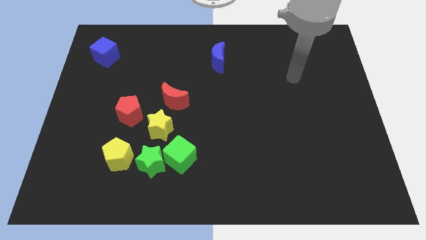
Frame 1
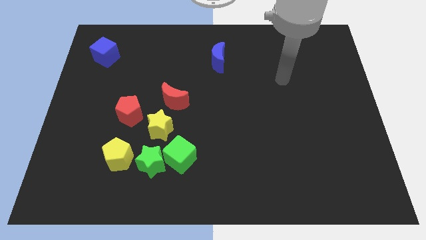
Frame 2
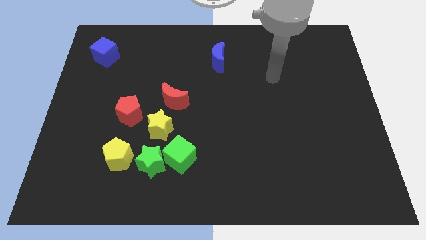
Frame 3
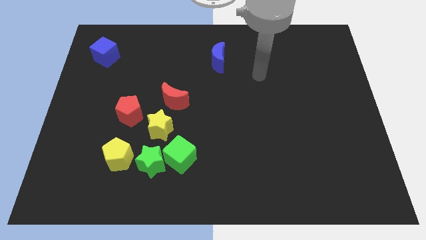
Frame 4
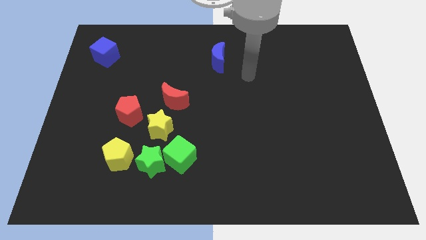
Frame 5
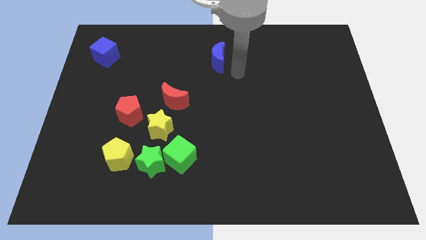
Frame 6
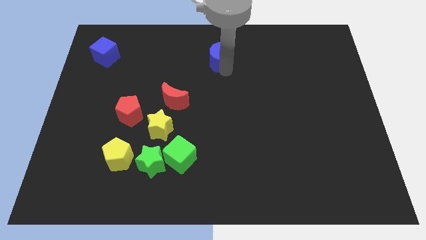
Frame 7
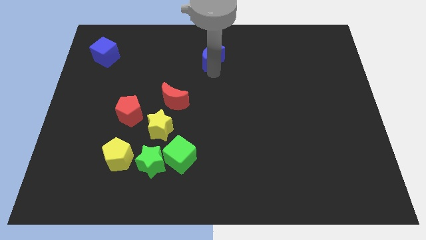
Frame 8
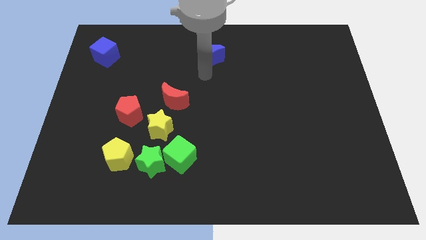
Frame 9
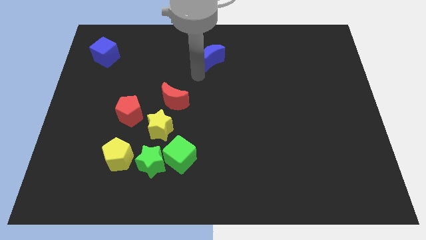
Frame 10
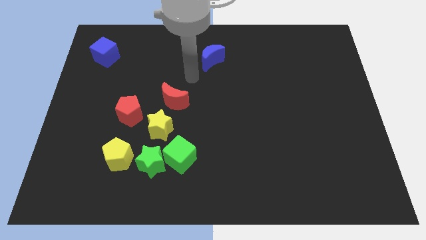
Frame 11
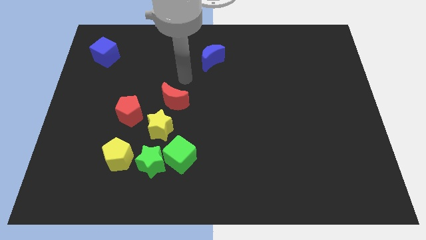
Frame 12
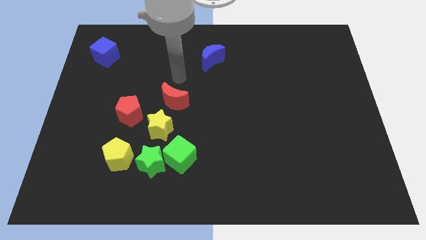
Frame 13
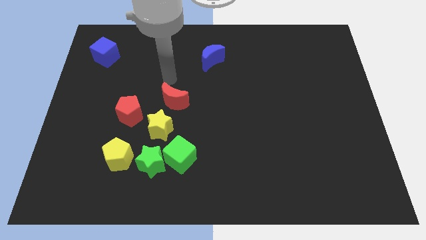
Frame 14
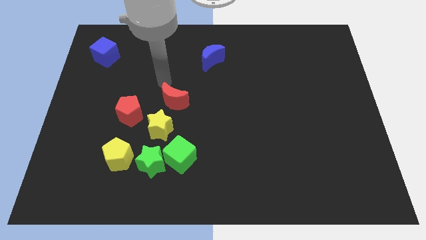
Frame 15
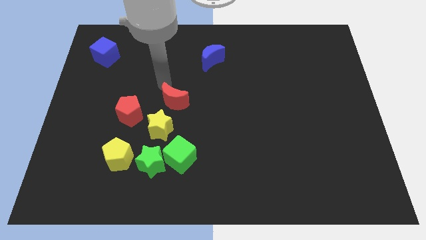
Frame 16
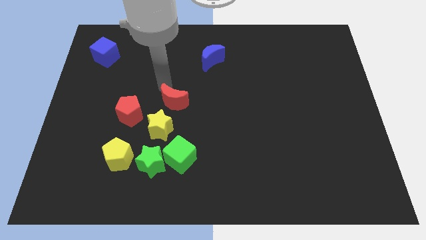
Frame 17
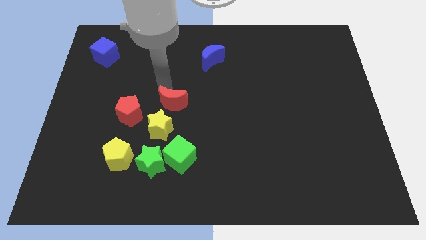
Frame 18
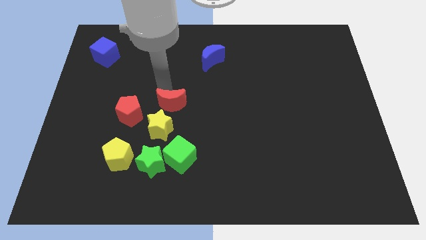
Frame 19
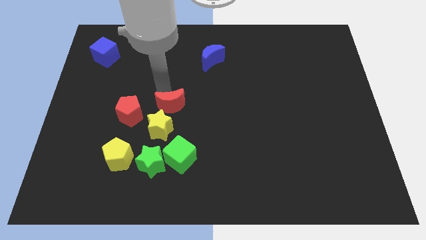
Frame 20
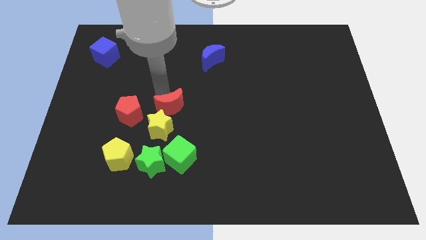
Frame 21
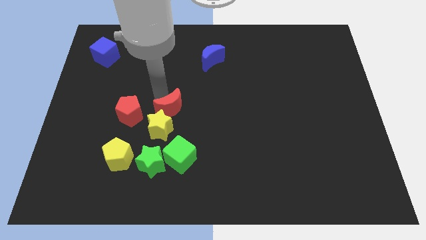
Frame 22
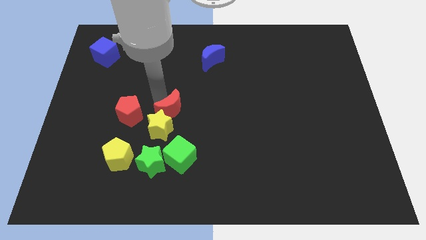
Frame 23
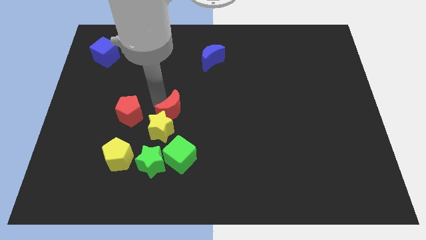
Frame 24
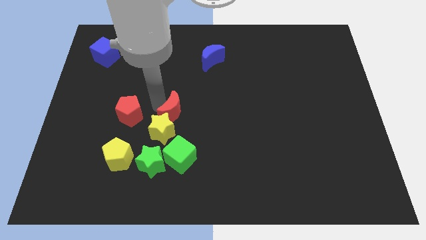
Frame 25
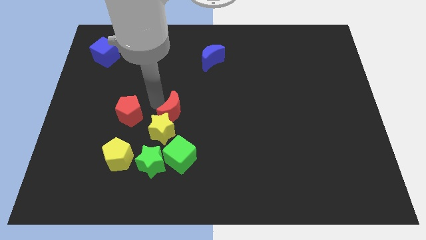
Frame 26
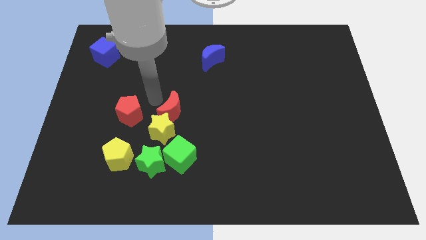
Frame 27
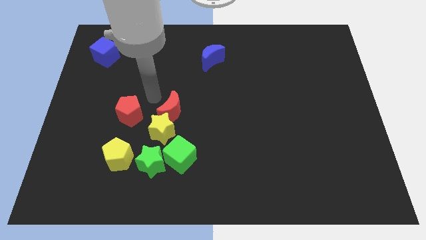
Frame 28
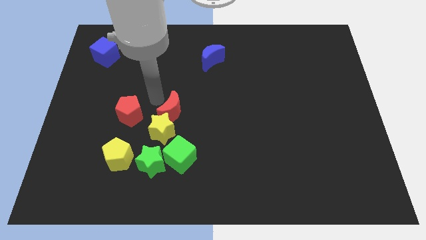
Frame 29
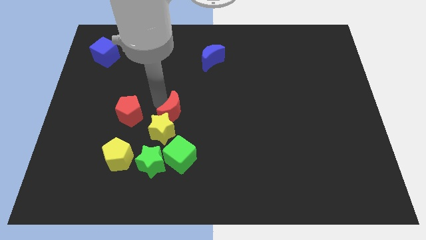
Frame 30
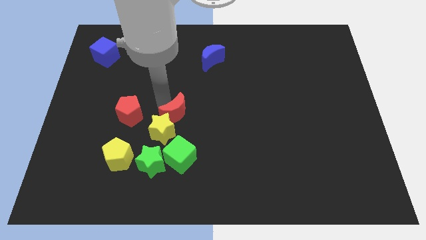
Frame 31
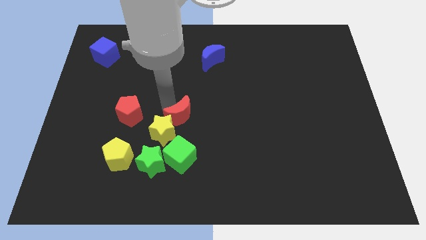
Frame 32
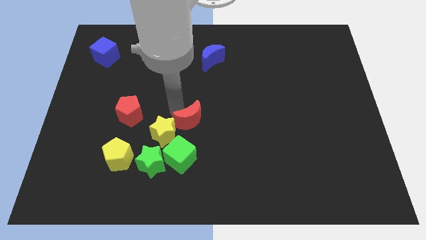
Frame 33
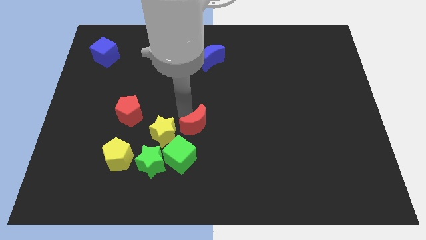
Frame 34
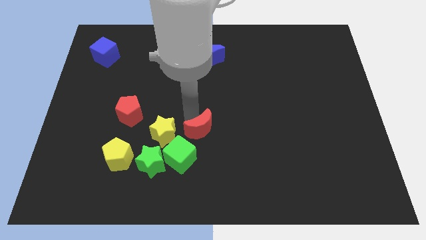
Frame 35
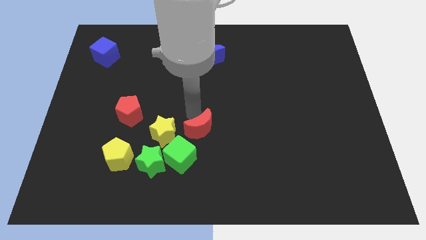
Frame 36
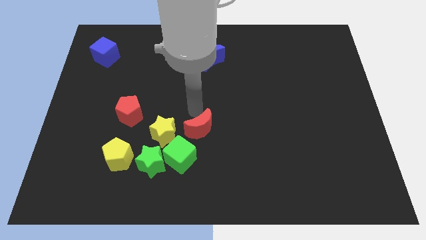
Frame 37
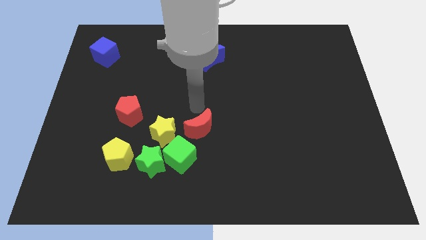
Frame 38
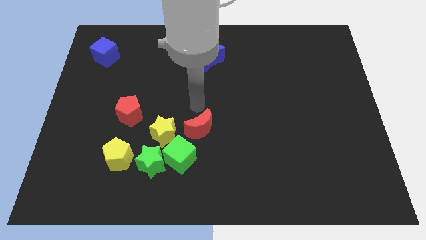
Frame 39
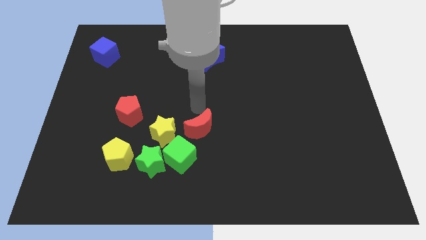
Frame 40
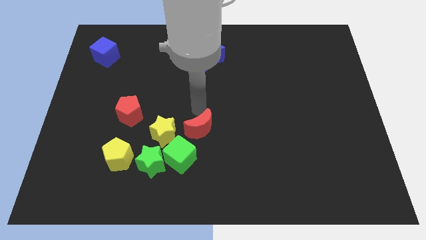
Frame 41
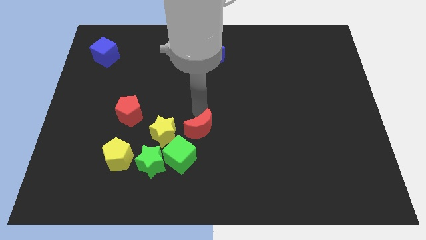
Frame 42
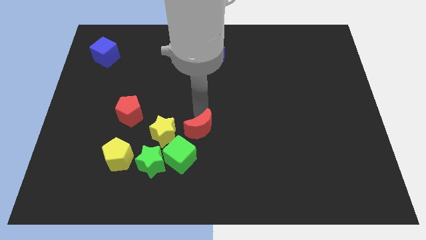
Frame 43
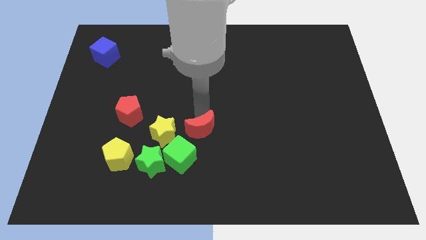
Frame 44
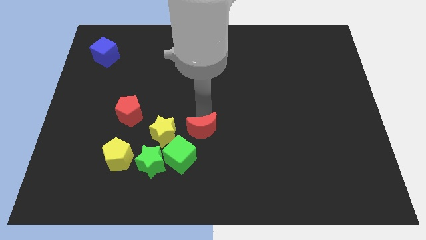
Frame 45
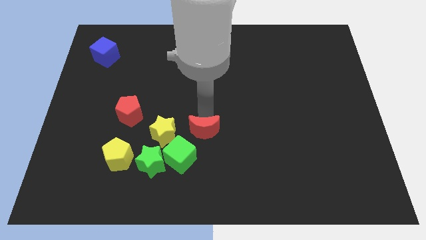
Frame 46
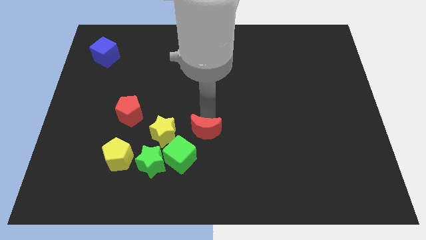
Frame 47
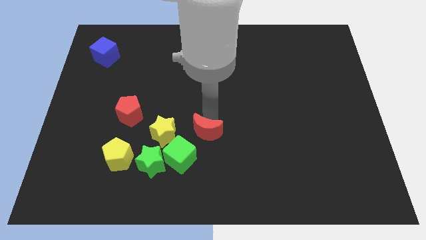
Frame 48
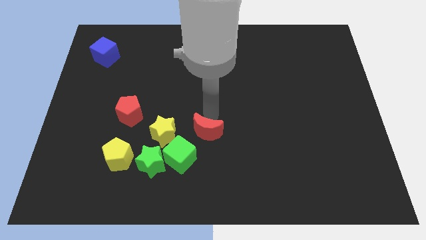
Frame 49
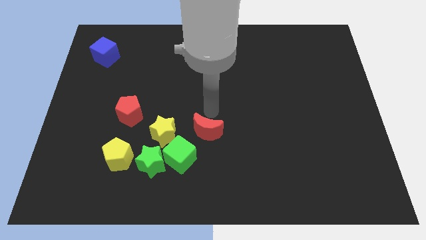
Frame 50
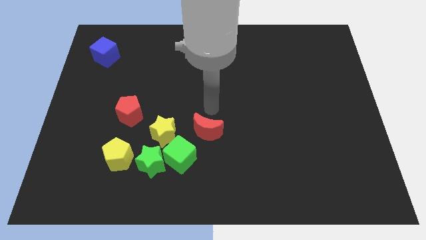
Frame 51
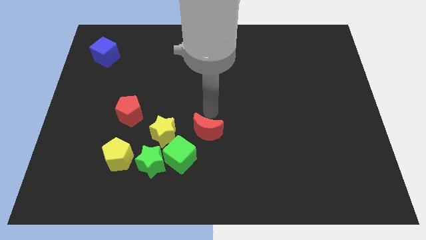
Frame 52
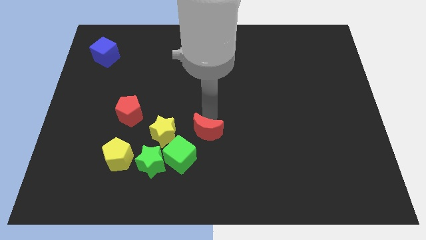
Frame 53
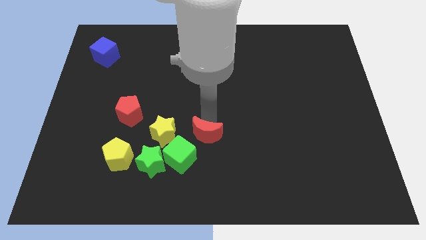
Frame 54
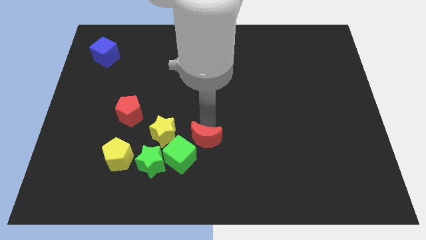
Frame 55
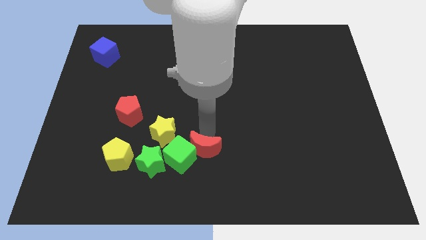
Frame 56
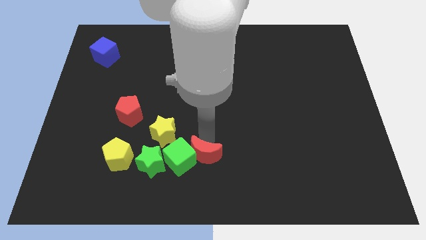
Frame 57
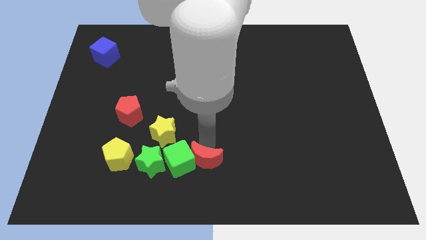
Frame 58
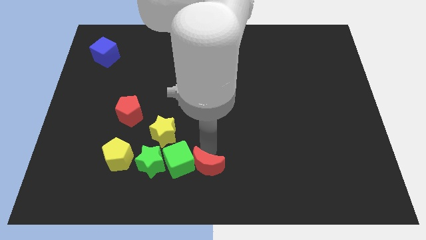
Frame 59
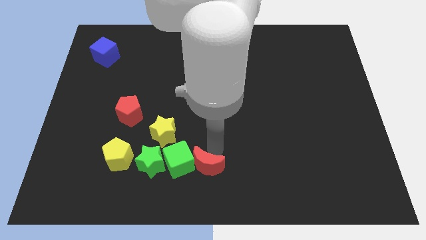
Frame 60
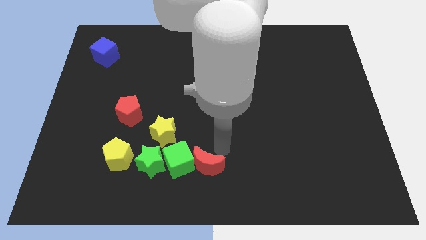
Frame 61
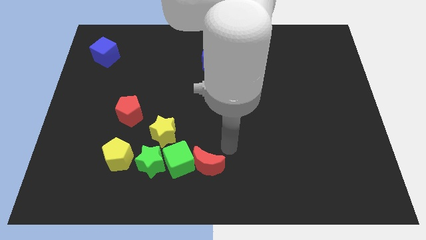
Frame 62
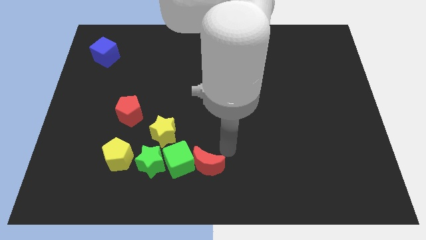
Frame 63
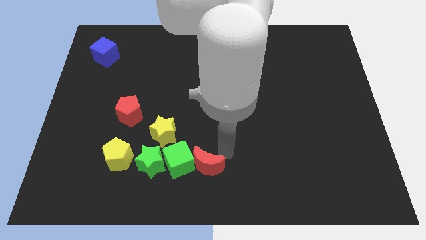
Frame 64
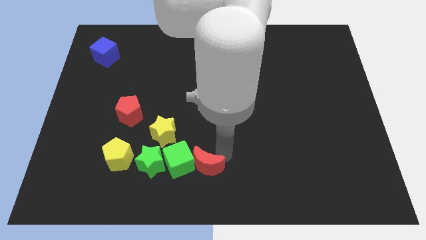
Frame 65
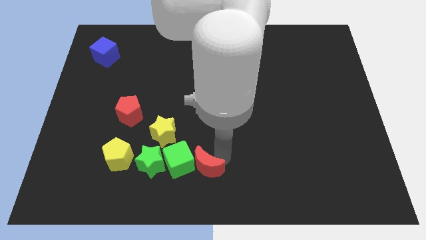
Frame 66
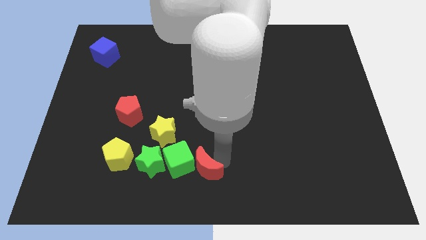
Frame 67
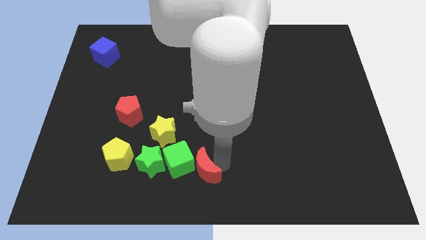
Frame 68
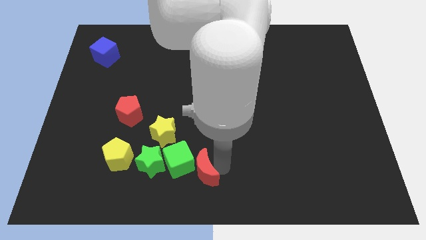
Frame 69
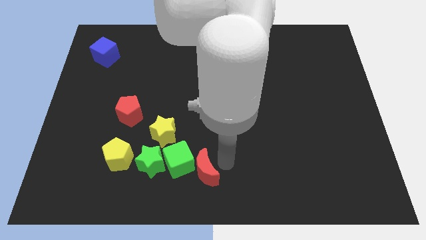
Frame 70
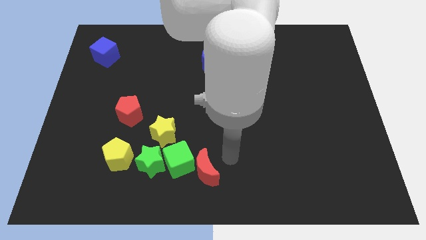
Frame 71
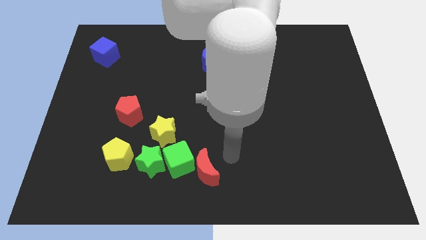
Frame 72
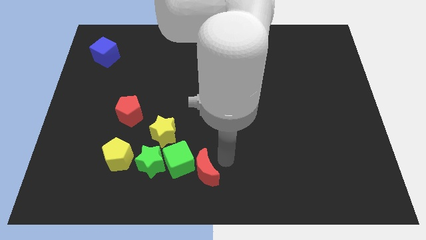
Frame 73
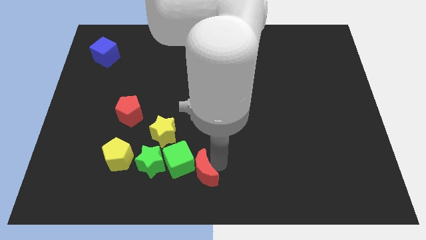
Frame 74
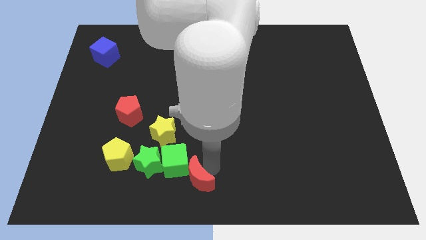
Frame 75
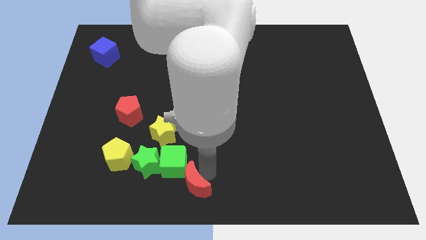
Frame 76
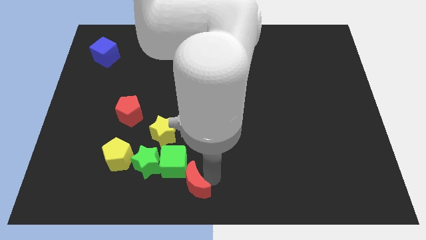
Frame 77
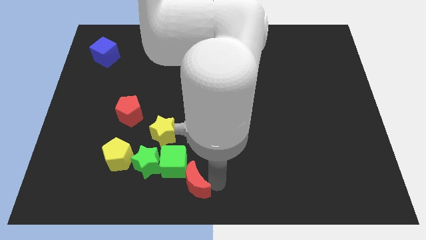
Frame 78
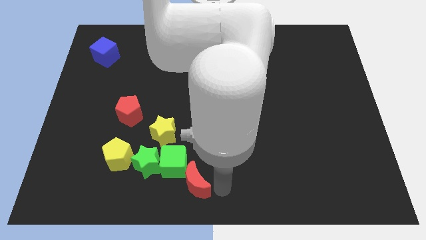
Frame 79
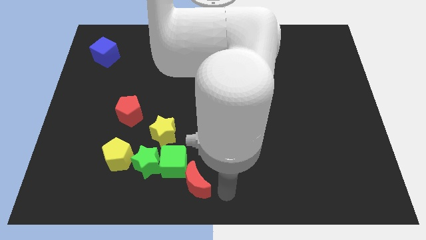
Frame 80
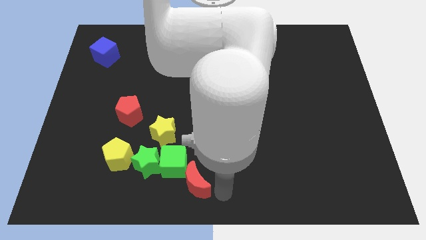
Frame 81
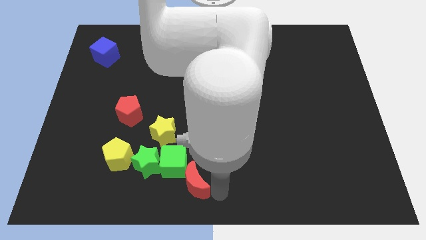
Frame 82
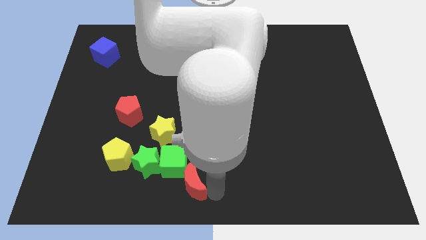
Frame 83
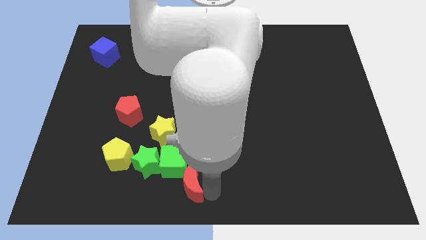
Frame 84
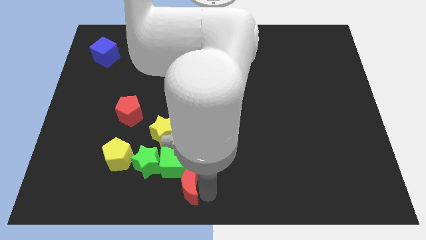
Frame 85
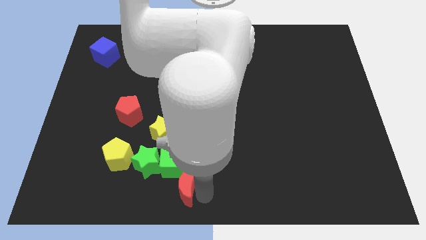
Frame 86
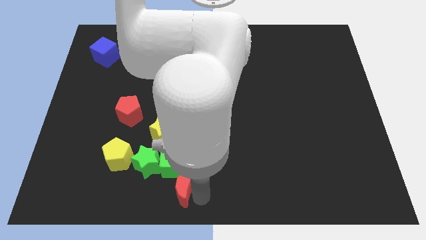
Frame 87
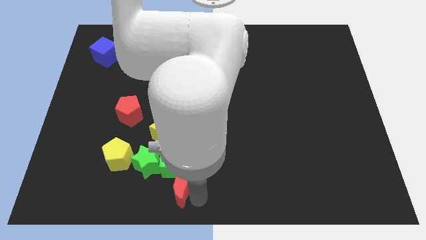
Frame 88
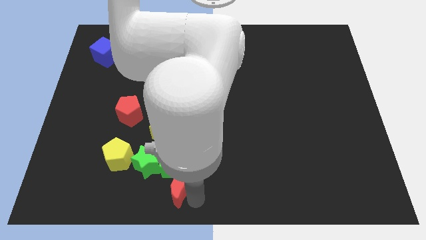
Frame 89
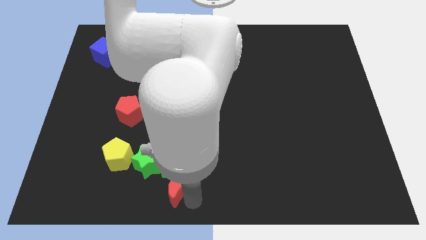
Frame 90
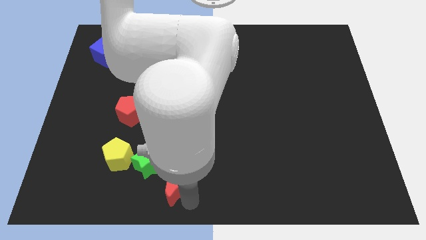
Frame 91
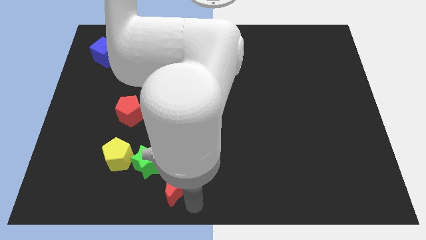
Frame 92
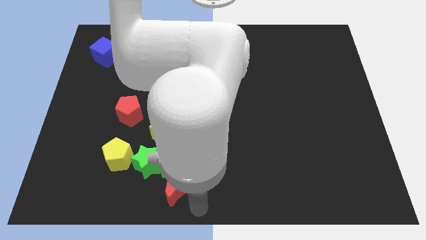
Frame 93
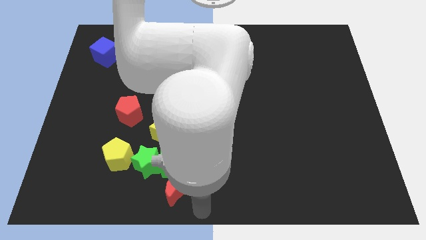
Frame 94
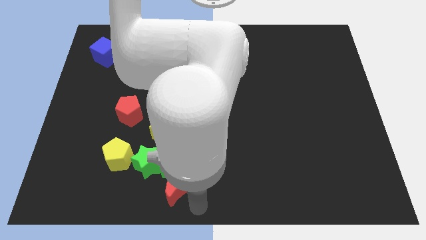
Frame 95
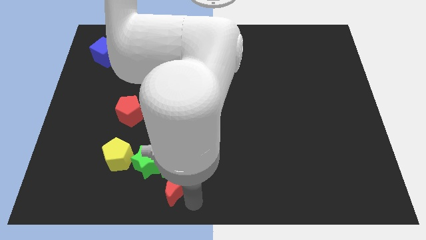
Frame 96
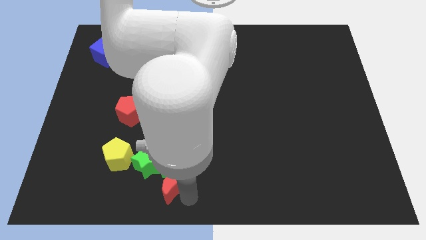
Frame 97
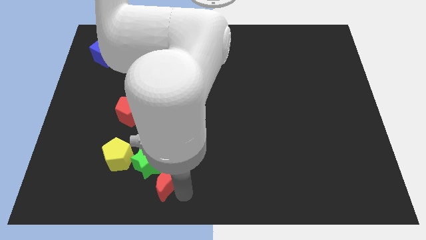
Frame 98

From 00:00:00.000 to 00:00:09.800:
slide the red moon close to the green star
